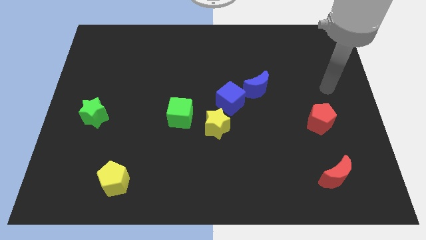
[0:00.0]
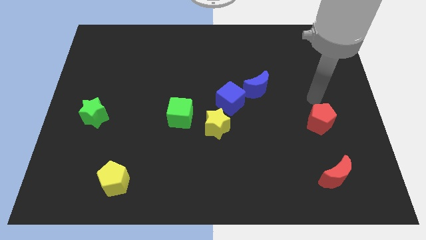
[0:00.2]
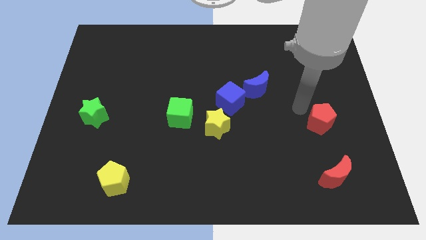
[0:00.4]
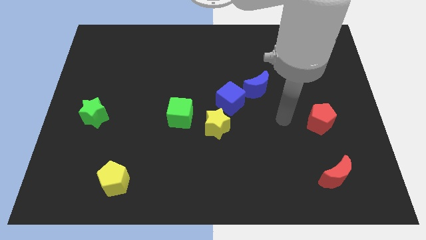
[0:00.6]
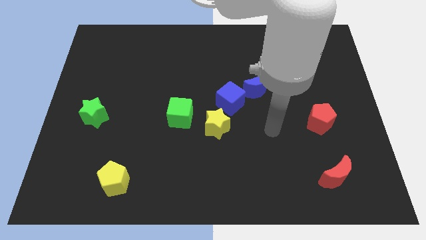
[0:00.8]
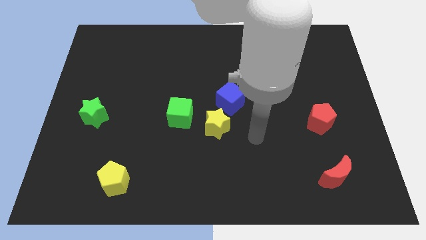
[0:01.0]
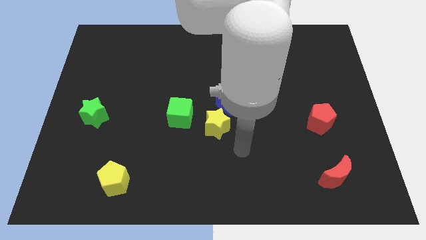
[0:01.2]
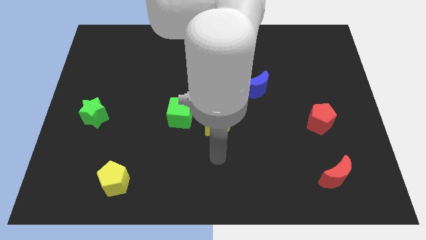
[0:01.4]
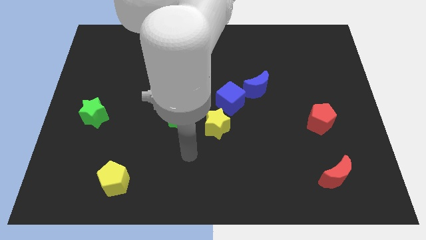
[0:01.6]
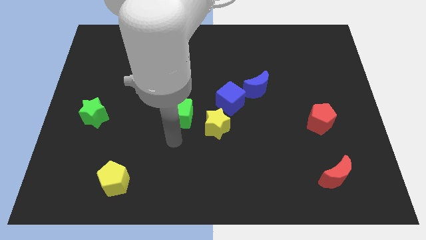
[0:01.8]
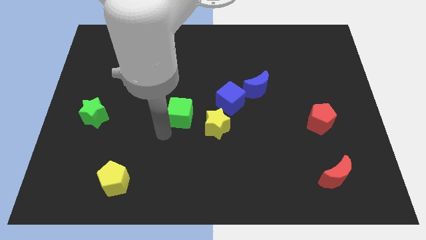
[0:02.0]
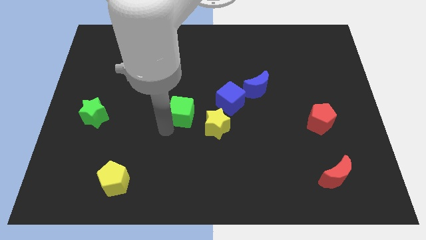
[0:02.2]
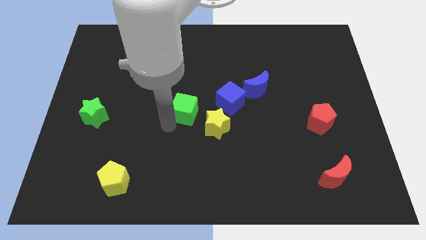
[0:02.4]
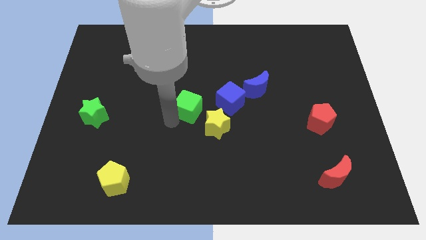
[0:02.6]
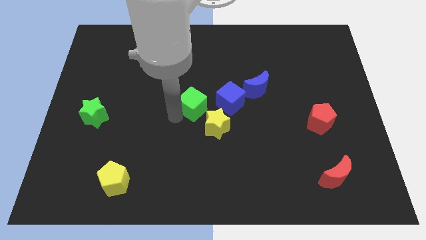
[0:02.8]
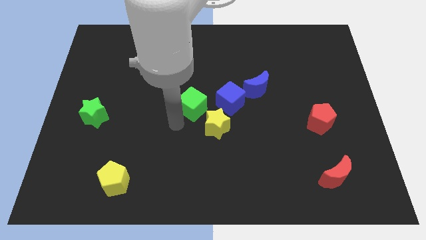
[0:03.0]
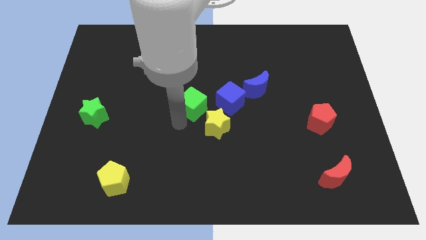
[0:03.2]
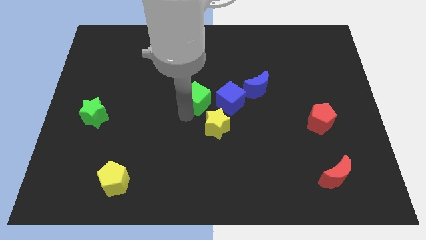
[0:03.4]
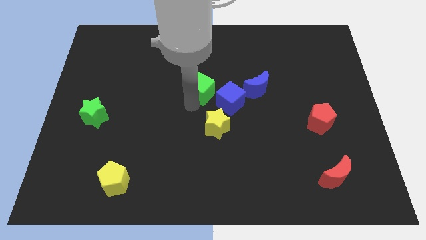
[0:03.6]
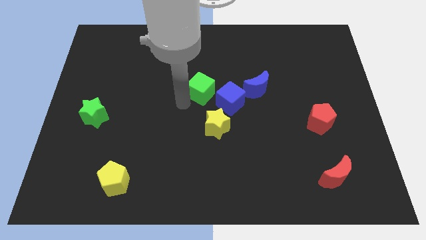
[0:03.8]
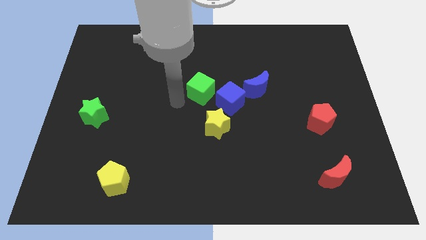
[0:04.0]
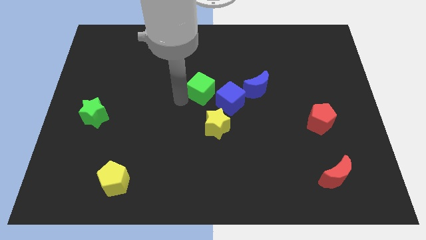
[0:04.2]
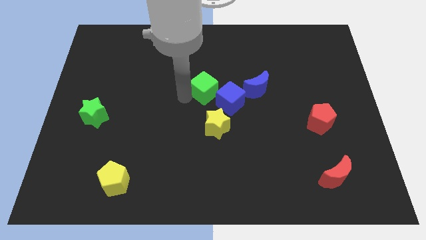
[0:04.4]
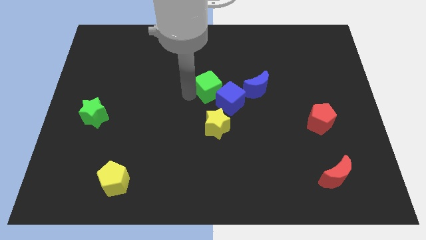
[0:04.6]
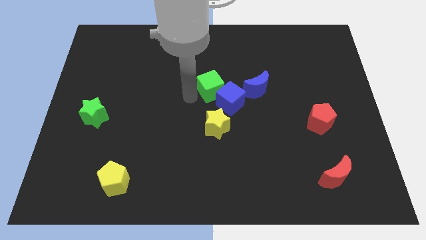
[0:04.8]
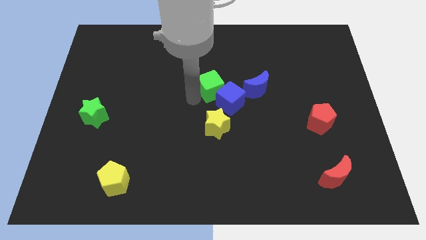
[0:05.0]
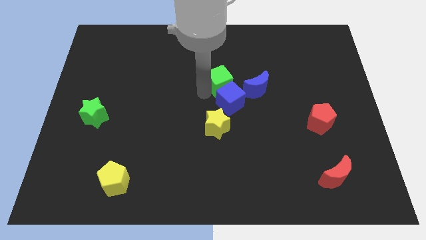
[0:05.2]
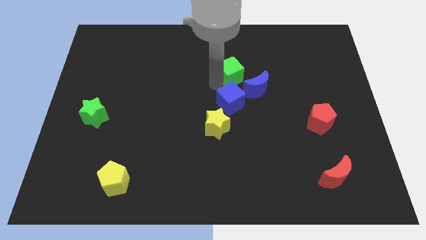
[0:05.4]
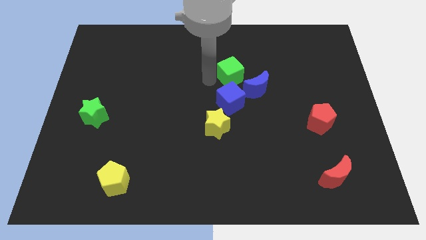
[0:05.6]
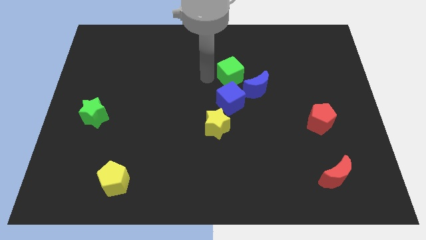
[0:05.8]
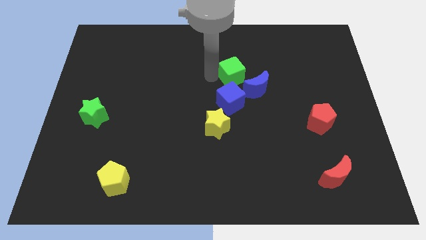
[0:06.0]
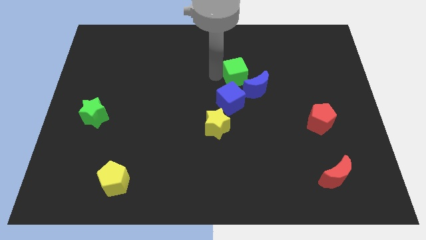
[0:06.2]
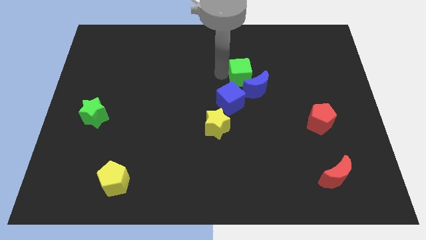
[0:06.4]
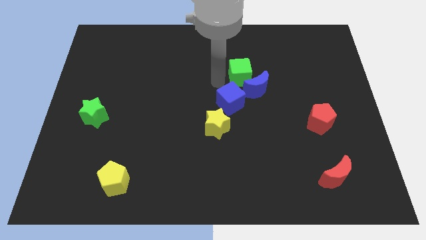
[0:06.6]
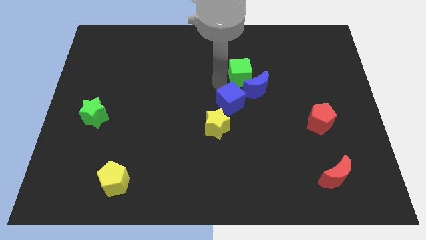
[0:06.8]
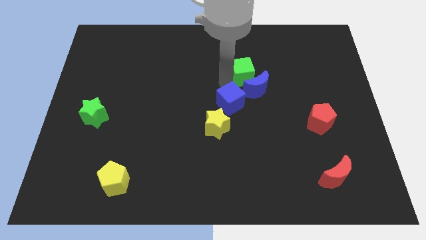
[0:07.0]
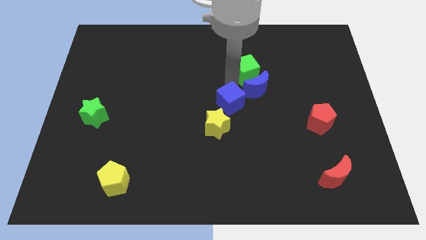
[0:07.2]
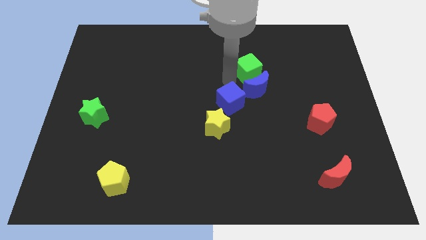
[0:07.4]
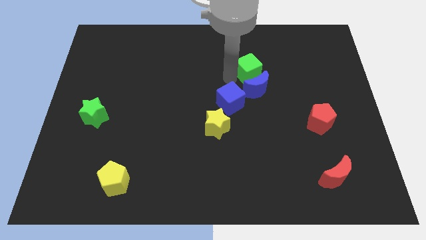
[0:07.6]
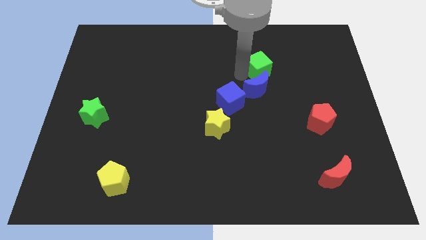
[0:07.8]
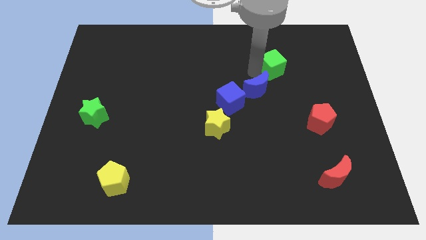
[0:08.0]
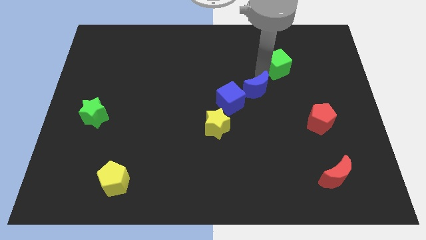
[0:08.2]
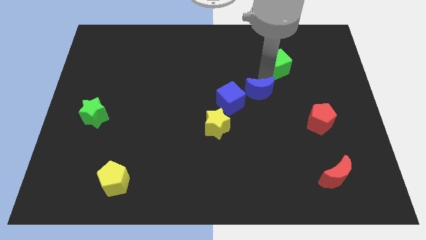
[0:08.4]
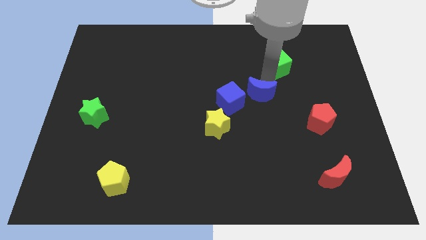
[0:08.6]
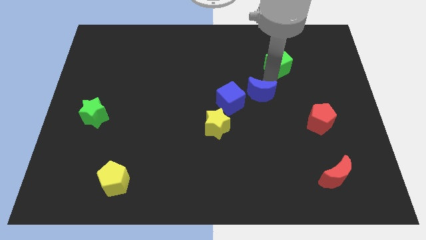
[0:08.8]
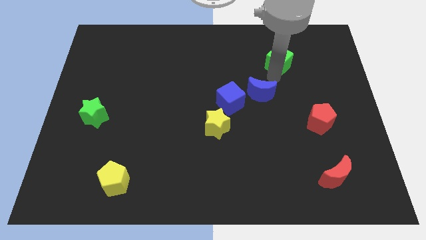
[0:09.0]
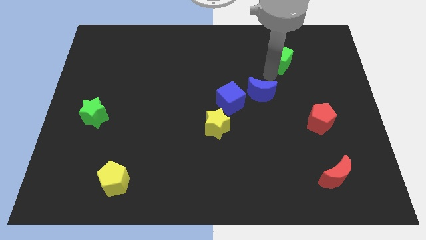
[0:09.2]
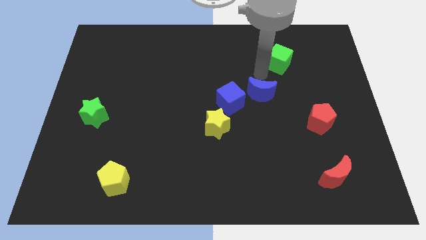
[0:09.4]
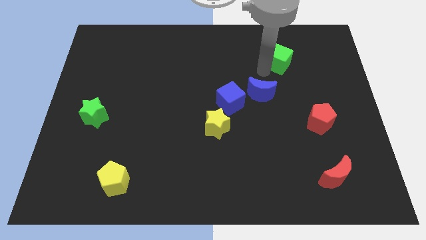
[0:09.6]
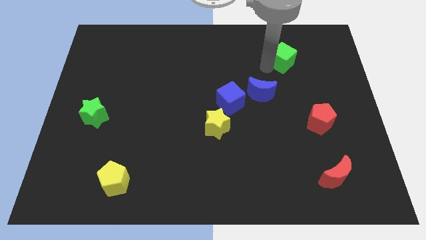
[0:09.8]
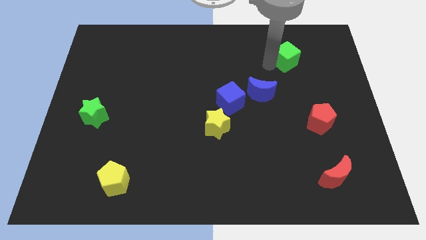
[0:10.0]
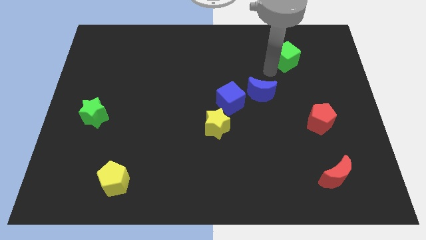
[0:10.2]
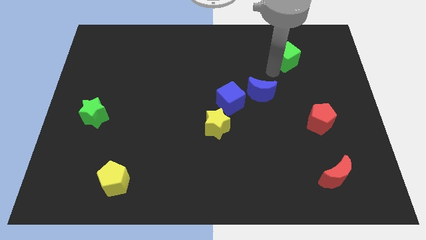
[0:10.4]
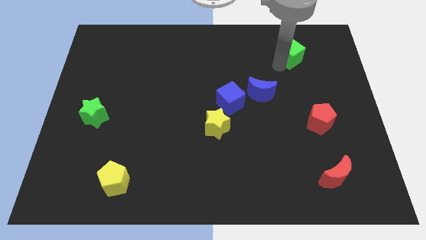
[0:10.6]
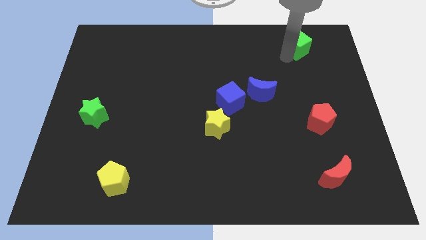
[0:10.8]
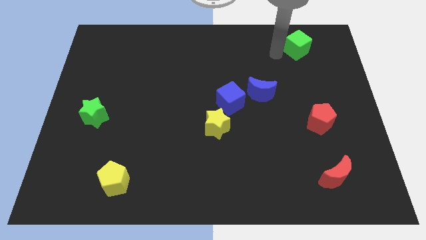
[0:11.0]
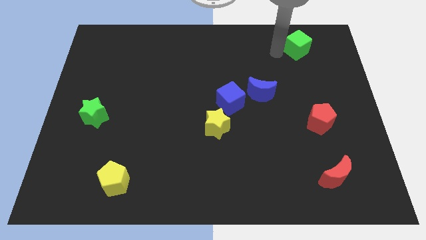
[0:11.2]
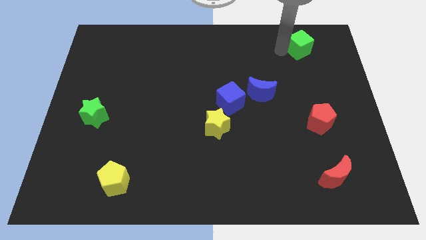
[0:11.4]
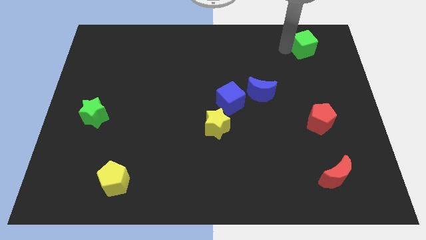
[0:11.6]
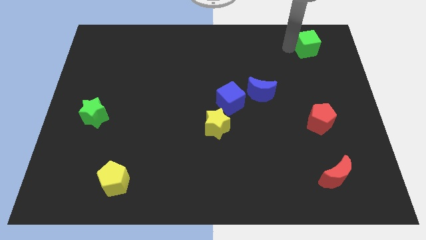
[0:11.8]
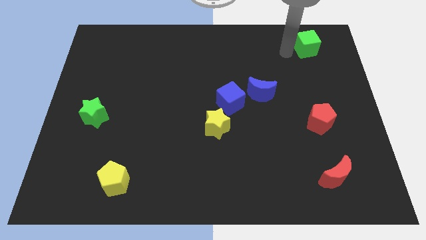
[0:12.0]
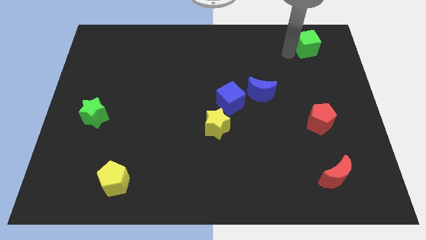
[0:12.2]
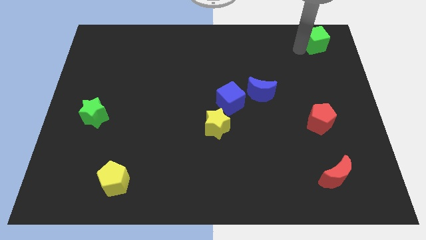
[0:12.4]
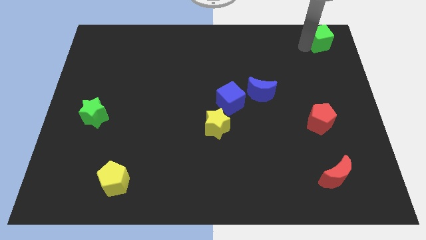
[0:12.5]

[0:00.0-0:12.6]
put the green cube to the top right of the board
